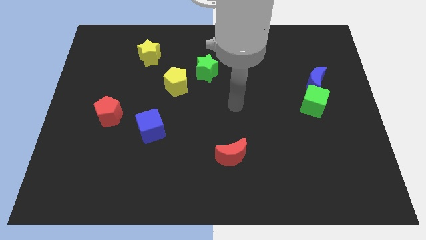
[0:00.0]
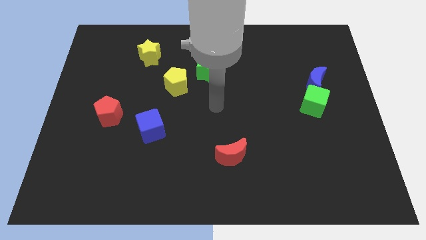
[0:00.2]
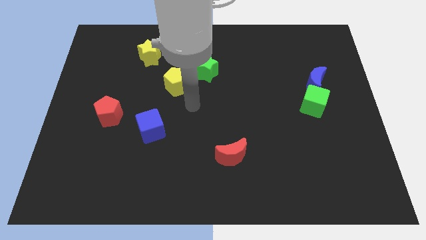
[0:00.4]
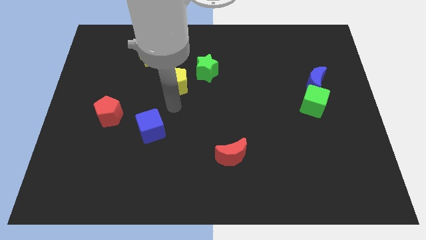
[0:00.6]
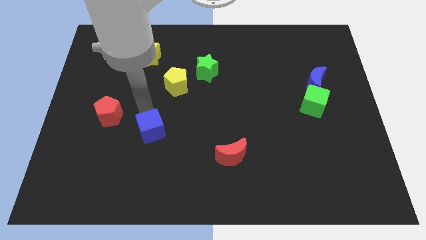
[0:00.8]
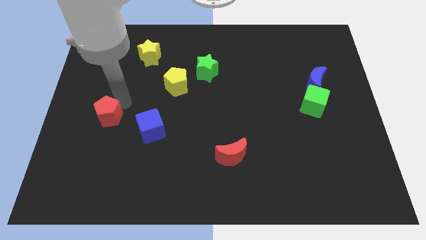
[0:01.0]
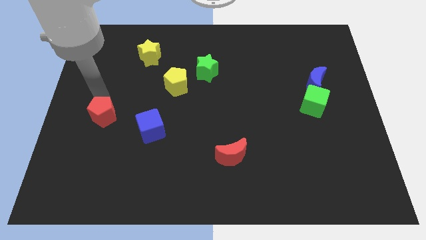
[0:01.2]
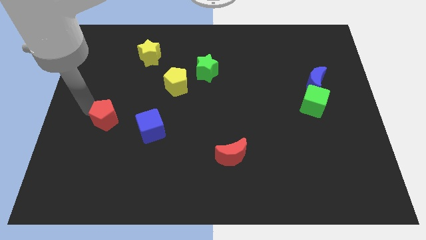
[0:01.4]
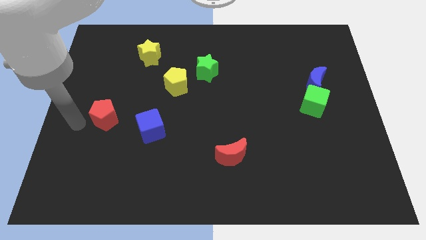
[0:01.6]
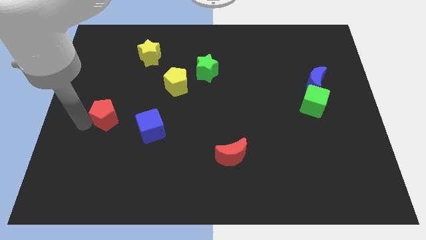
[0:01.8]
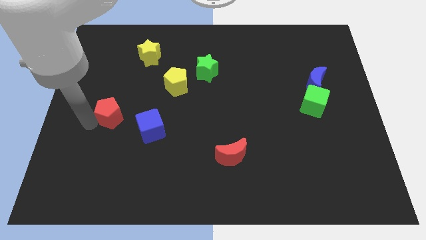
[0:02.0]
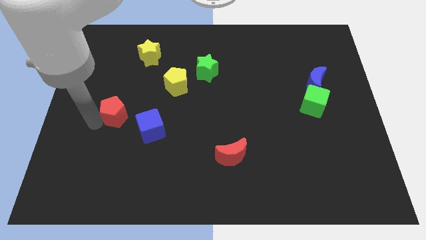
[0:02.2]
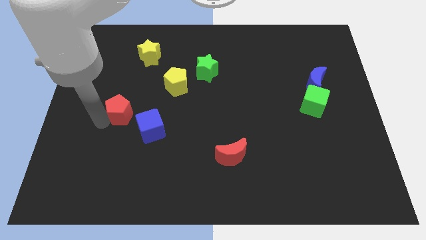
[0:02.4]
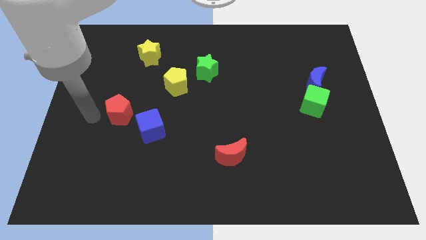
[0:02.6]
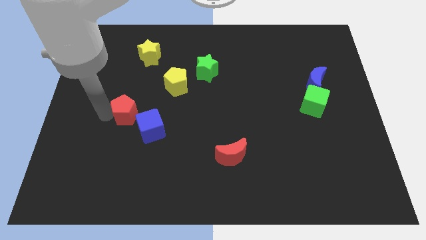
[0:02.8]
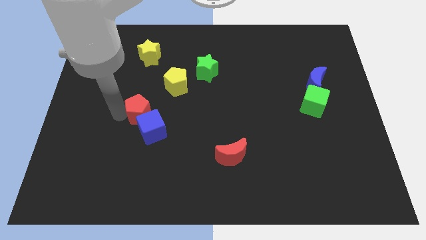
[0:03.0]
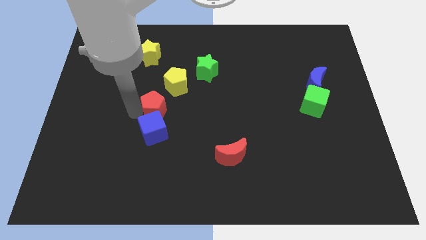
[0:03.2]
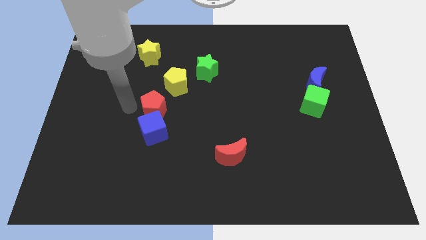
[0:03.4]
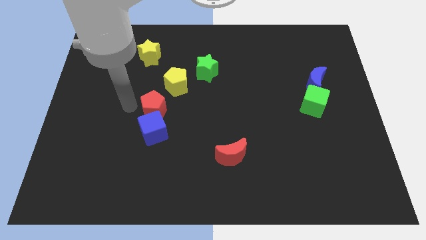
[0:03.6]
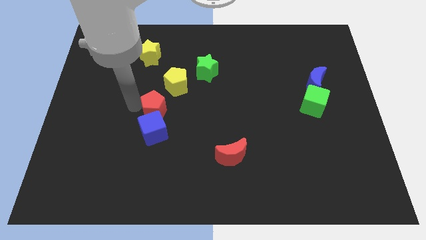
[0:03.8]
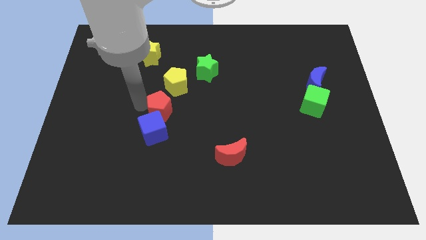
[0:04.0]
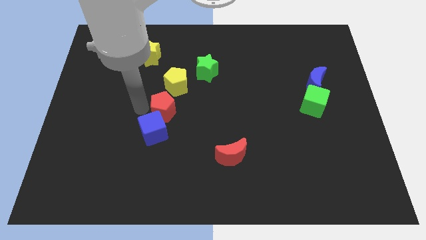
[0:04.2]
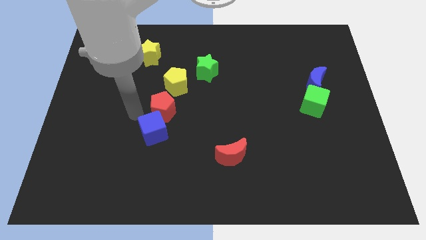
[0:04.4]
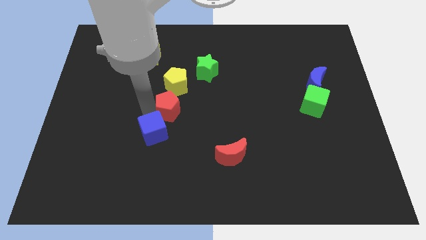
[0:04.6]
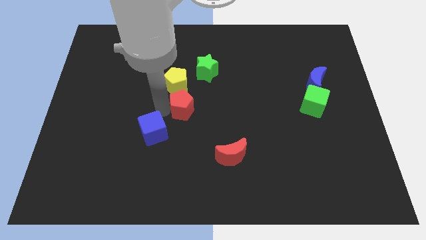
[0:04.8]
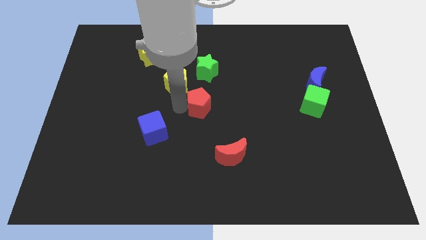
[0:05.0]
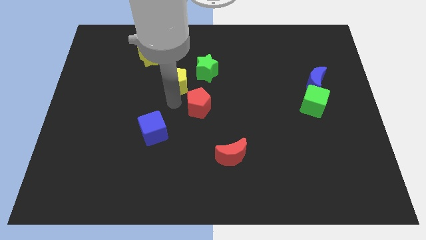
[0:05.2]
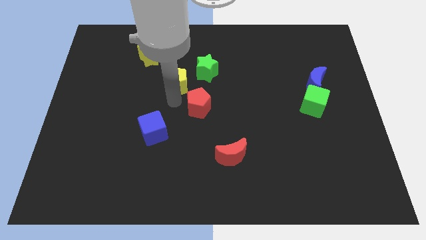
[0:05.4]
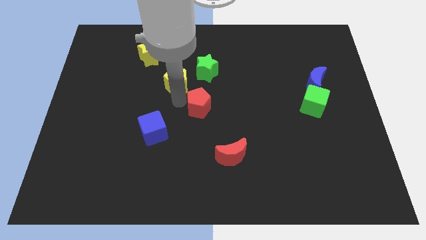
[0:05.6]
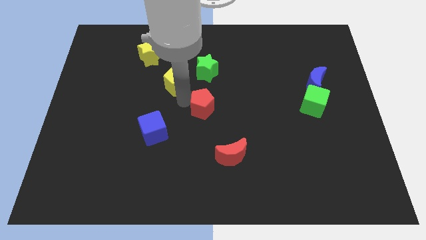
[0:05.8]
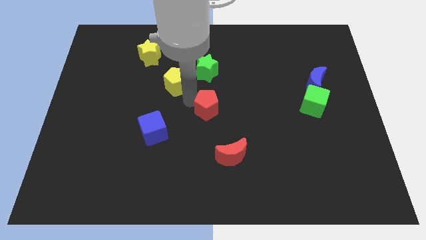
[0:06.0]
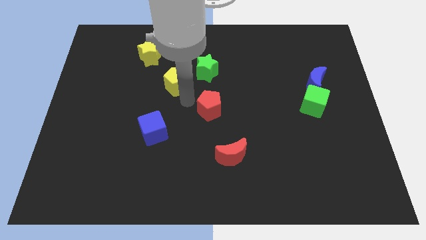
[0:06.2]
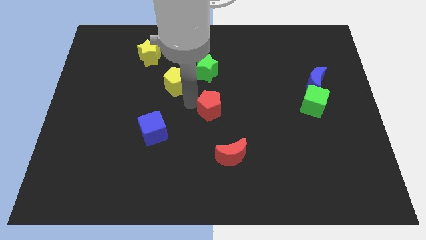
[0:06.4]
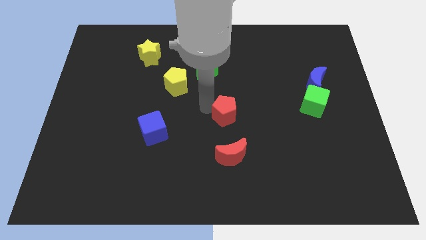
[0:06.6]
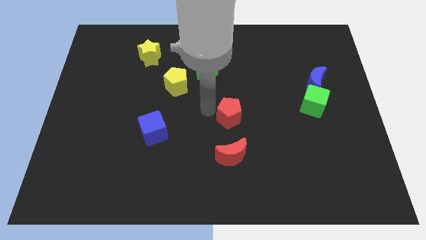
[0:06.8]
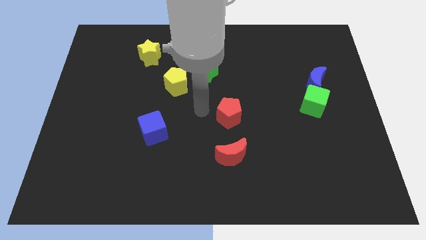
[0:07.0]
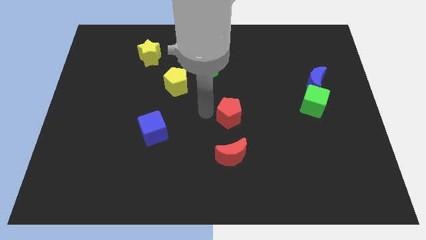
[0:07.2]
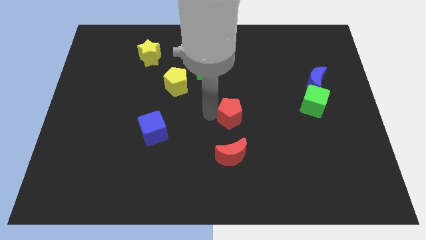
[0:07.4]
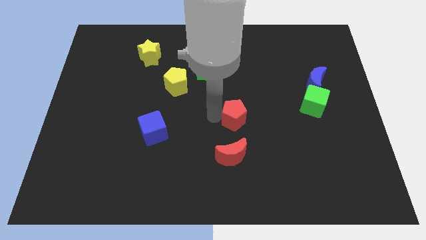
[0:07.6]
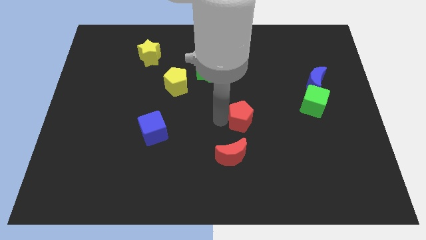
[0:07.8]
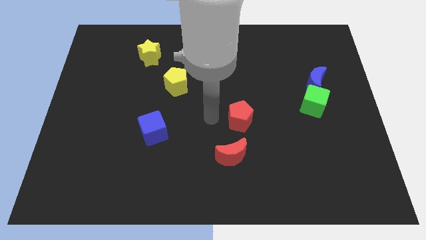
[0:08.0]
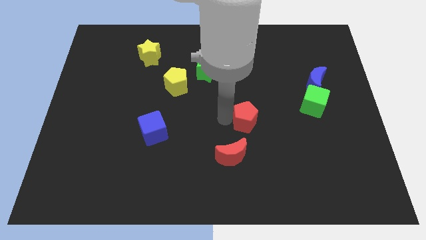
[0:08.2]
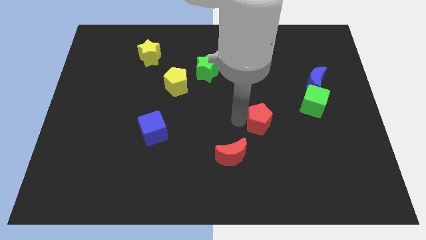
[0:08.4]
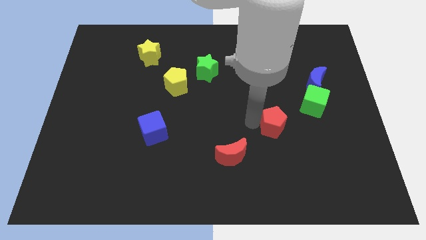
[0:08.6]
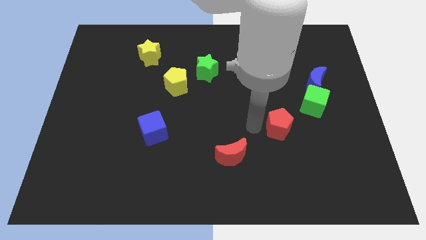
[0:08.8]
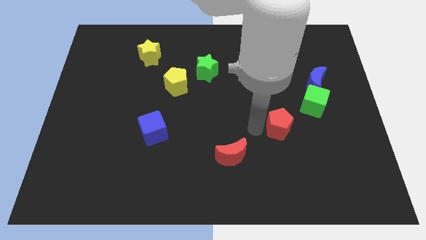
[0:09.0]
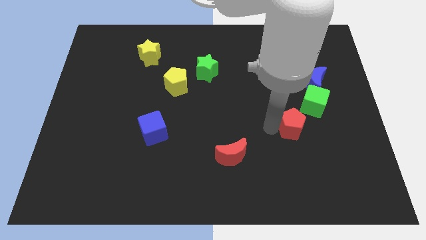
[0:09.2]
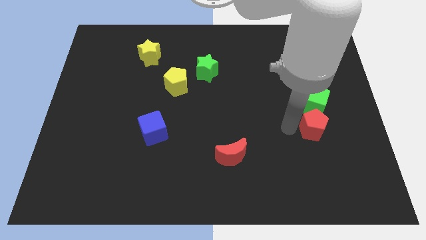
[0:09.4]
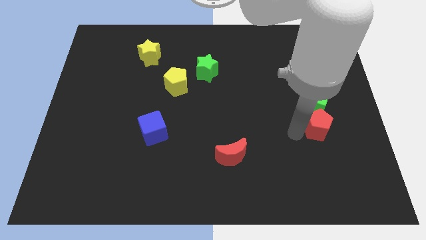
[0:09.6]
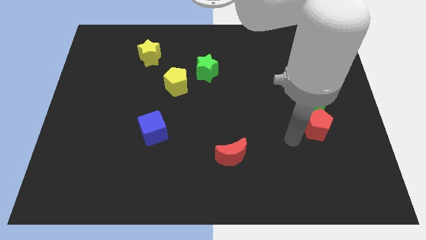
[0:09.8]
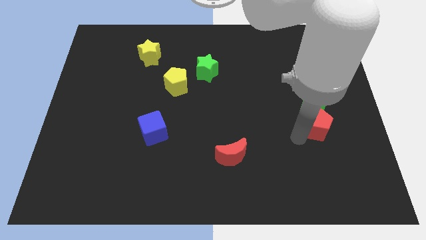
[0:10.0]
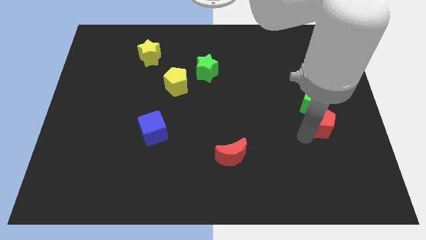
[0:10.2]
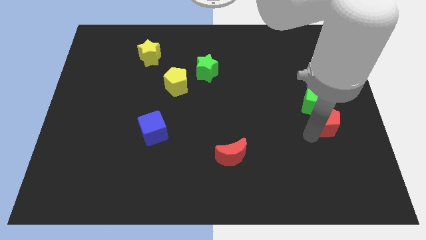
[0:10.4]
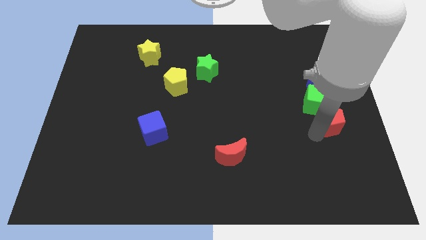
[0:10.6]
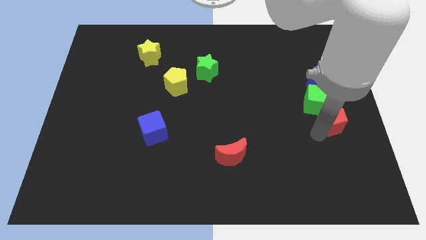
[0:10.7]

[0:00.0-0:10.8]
slide the red pentagon to the center right
